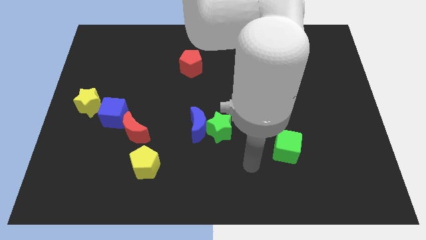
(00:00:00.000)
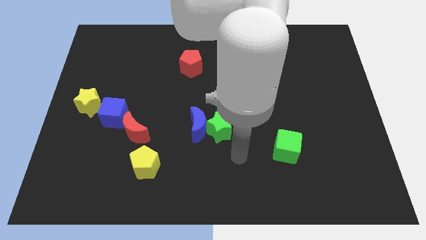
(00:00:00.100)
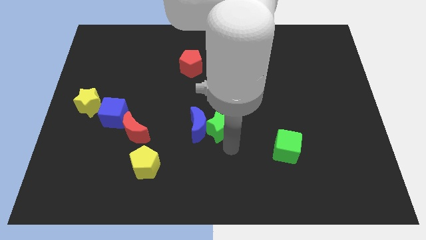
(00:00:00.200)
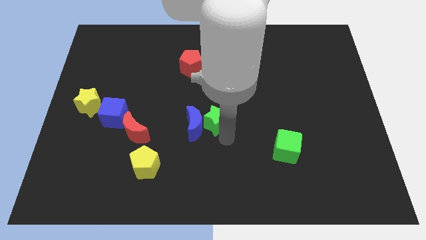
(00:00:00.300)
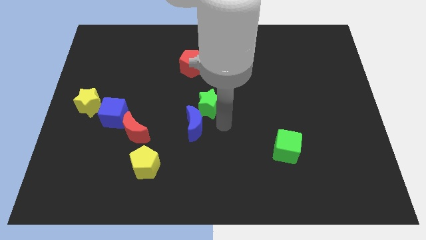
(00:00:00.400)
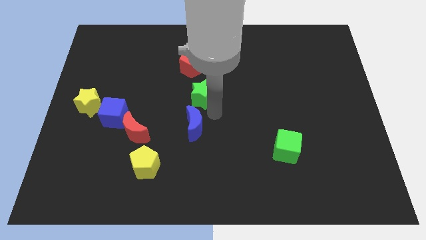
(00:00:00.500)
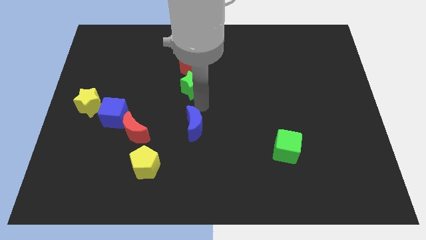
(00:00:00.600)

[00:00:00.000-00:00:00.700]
separate the blue moon from the green star

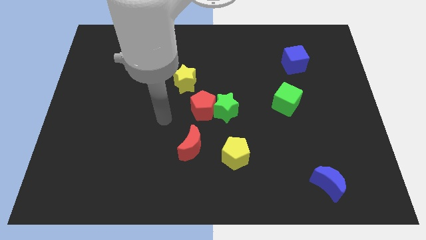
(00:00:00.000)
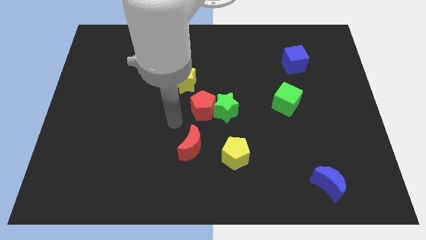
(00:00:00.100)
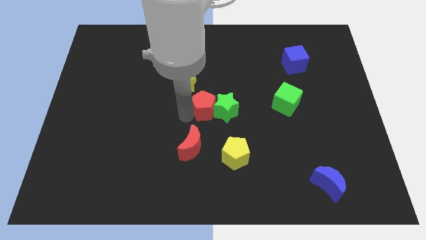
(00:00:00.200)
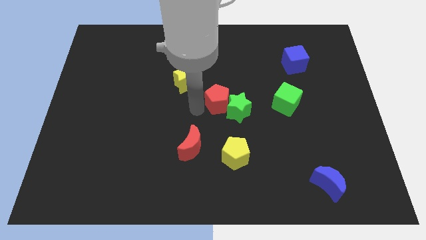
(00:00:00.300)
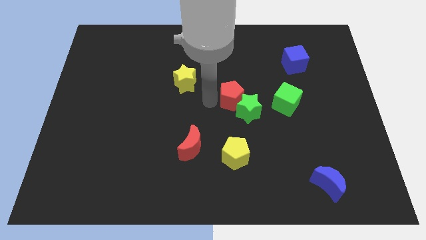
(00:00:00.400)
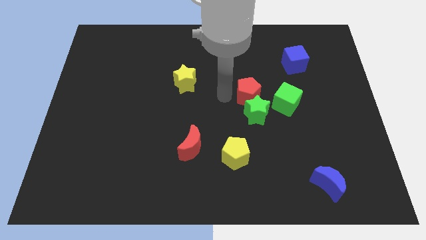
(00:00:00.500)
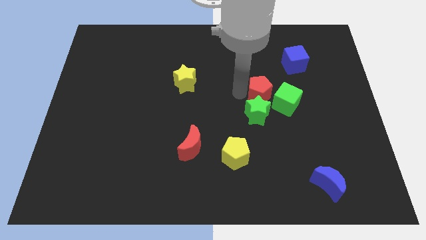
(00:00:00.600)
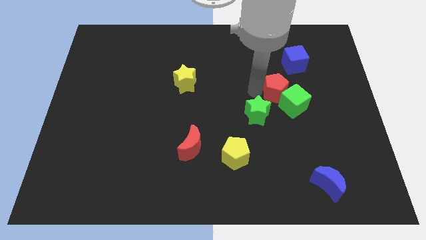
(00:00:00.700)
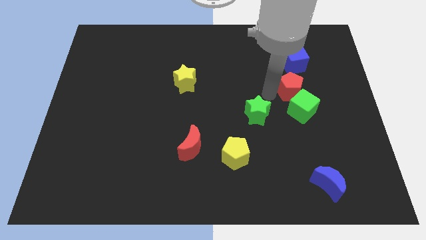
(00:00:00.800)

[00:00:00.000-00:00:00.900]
move the green star away from the red pentagon

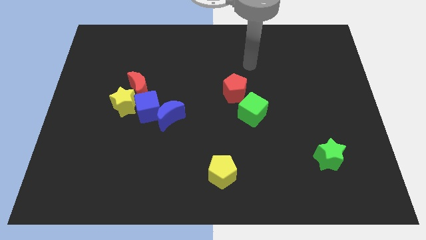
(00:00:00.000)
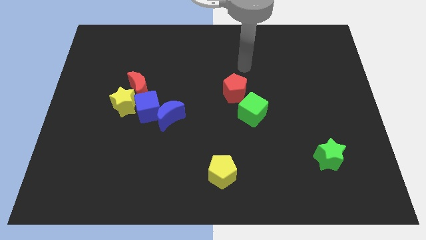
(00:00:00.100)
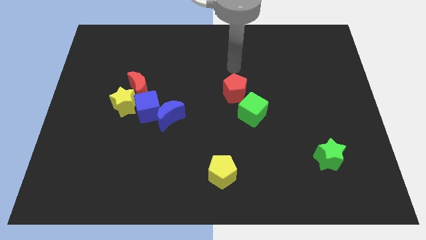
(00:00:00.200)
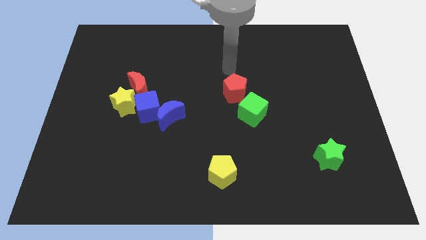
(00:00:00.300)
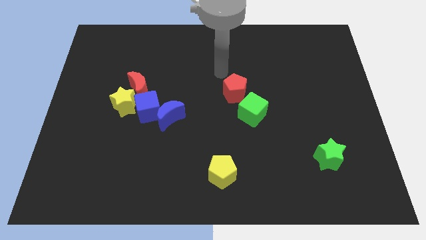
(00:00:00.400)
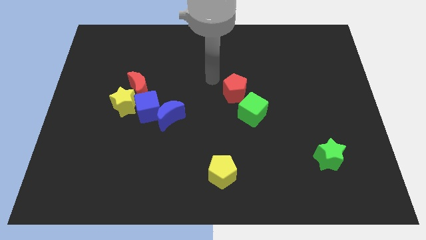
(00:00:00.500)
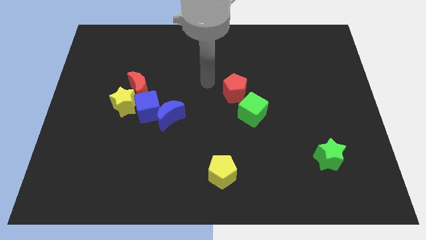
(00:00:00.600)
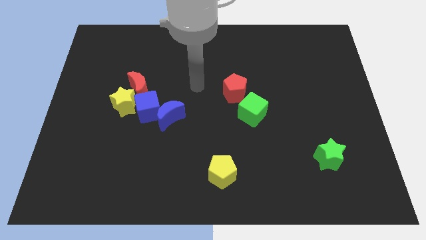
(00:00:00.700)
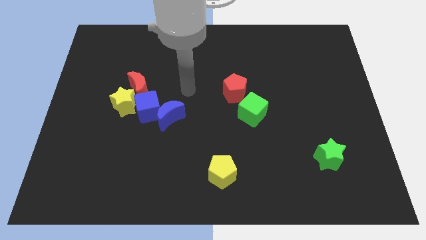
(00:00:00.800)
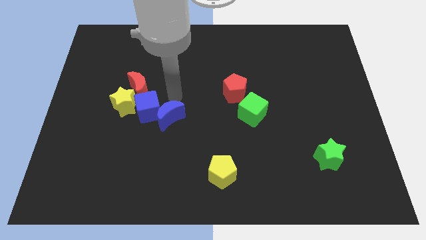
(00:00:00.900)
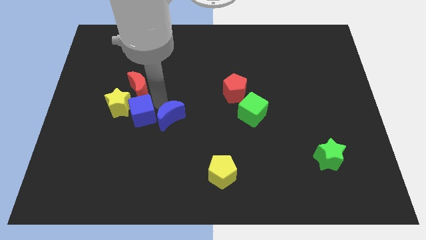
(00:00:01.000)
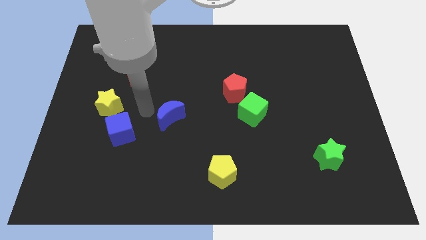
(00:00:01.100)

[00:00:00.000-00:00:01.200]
pull the blue moon apart from the blue cube

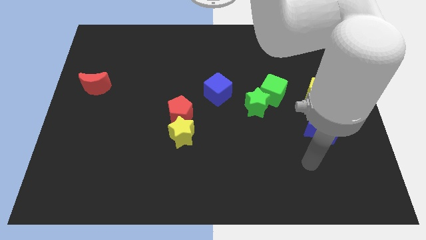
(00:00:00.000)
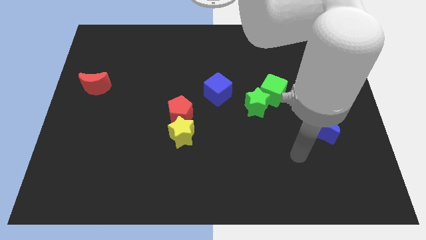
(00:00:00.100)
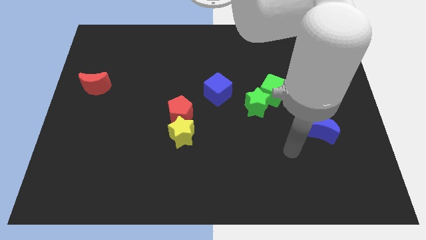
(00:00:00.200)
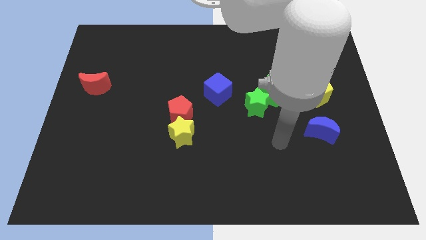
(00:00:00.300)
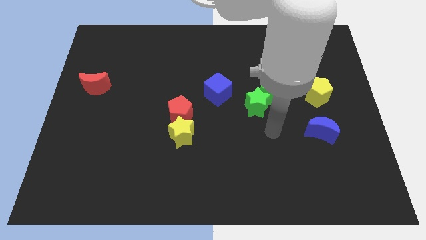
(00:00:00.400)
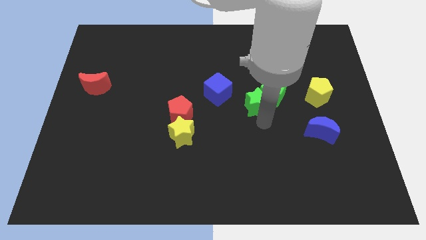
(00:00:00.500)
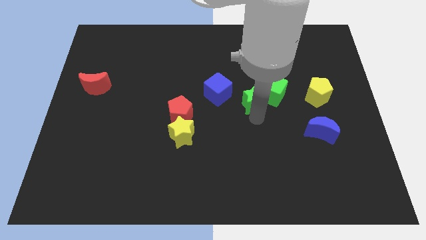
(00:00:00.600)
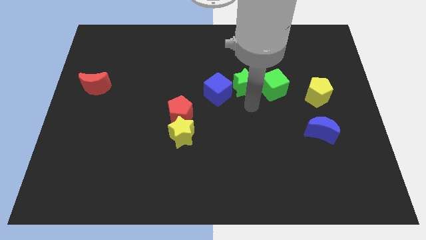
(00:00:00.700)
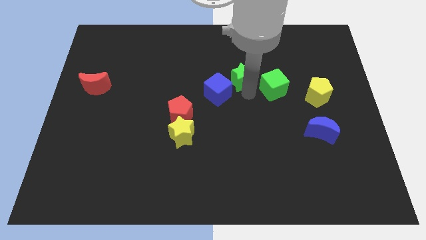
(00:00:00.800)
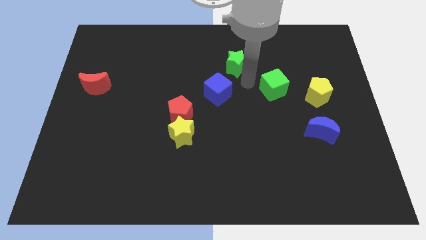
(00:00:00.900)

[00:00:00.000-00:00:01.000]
move the green cube away from the green star

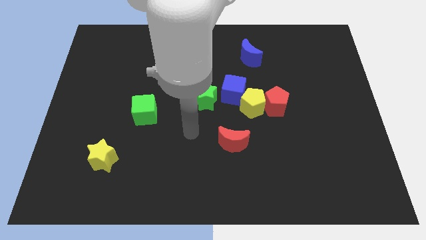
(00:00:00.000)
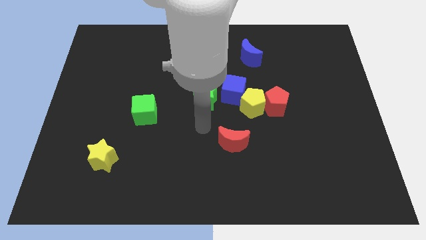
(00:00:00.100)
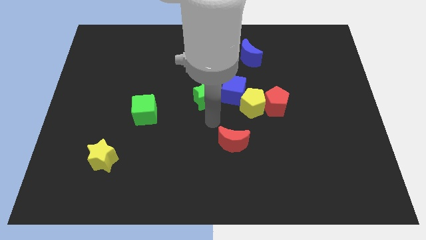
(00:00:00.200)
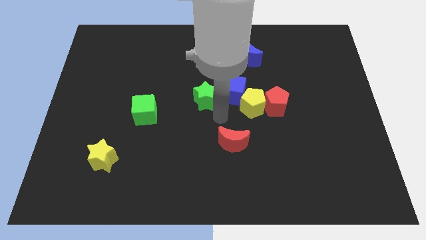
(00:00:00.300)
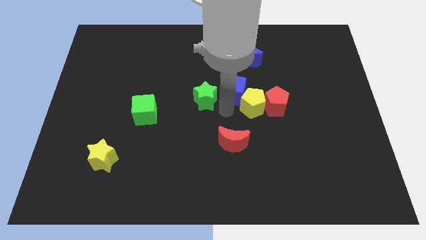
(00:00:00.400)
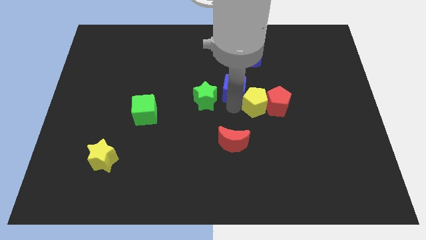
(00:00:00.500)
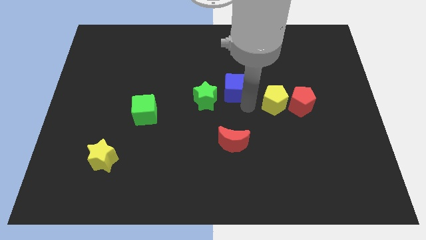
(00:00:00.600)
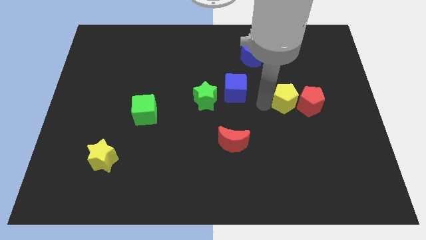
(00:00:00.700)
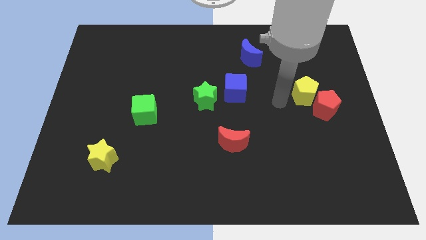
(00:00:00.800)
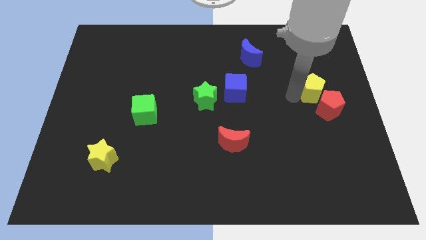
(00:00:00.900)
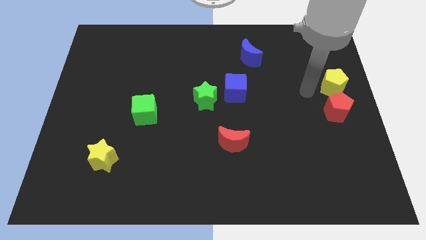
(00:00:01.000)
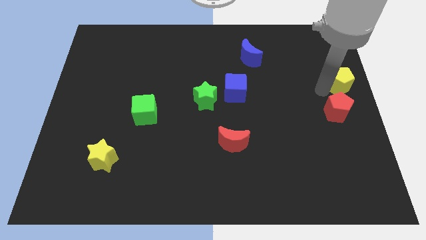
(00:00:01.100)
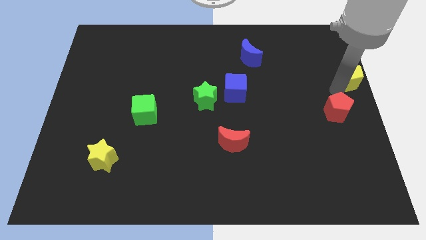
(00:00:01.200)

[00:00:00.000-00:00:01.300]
separate the red pentagon from the yellow pentagon

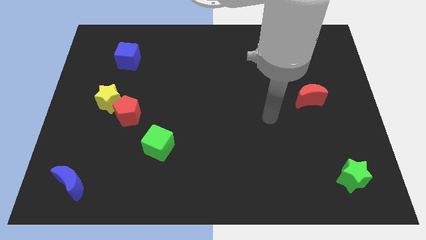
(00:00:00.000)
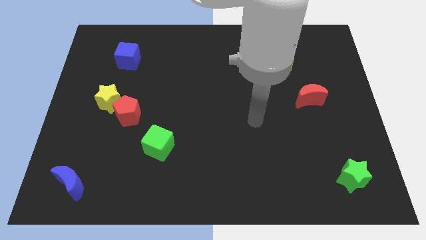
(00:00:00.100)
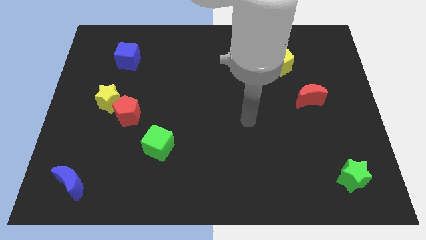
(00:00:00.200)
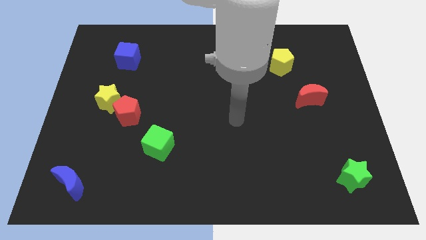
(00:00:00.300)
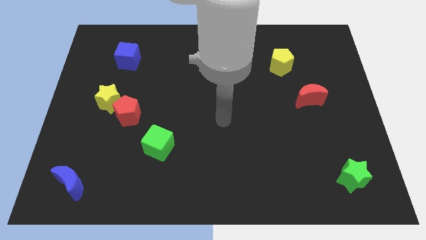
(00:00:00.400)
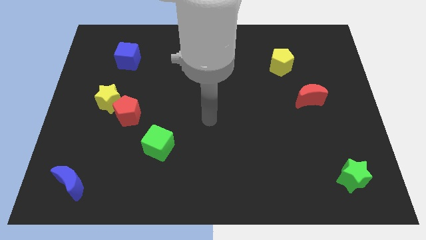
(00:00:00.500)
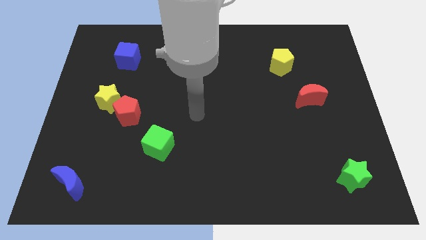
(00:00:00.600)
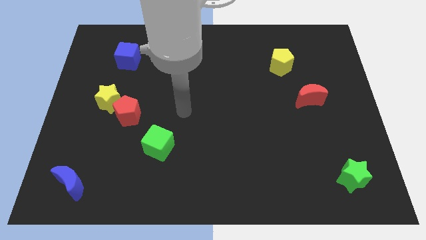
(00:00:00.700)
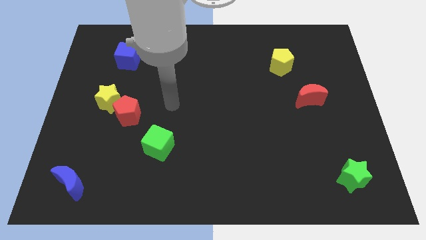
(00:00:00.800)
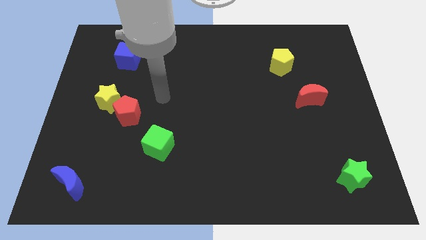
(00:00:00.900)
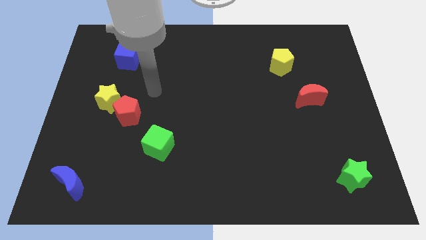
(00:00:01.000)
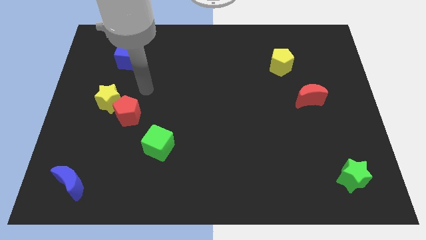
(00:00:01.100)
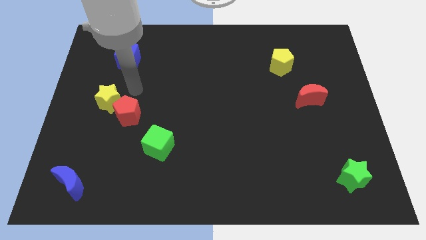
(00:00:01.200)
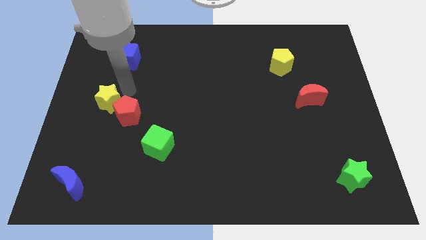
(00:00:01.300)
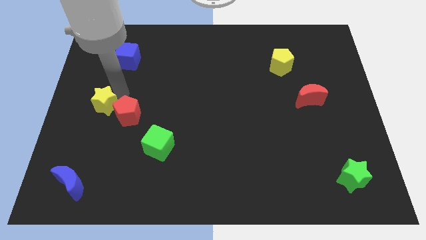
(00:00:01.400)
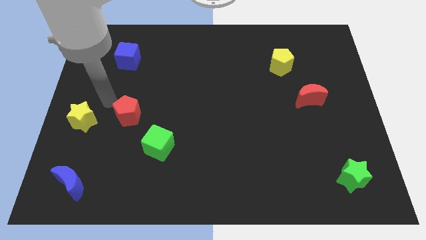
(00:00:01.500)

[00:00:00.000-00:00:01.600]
separate the red pentagon from the yellow star

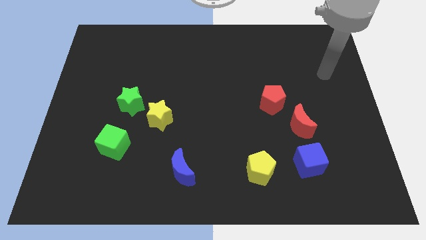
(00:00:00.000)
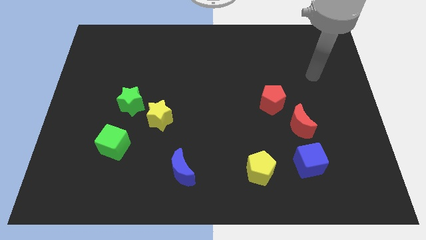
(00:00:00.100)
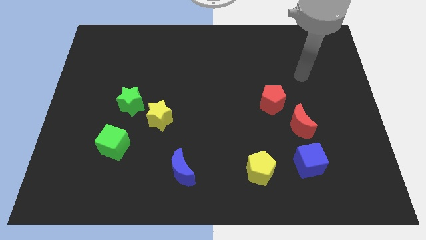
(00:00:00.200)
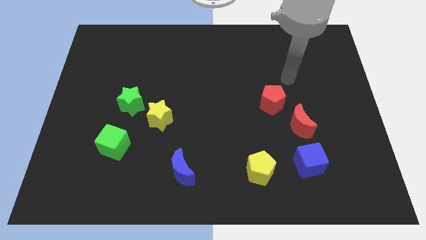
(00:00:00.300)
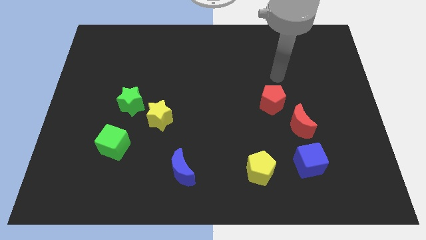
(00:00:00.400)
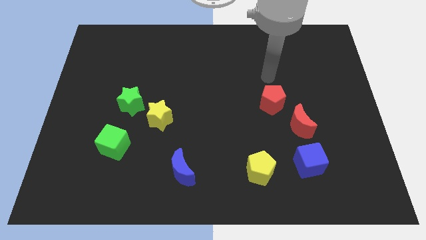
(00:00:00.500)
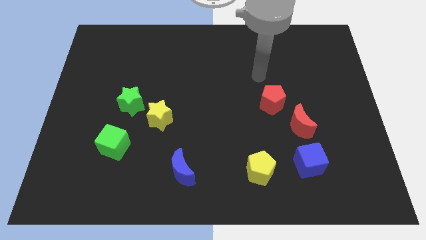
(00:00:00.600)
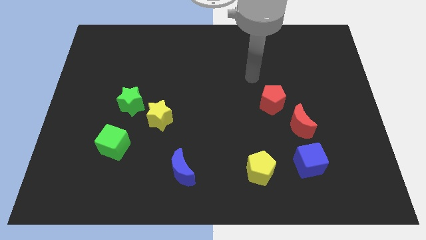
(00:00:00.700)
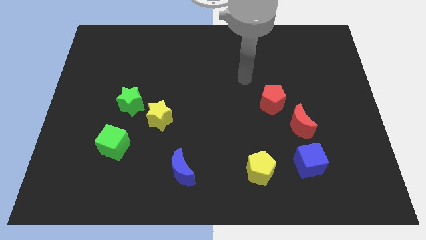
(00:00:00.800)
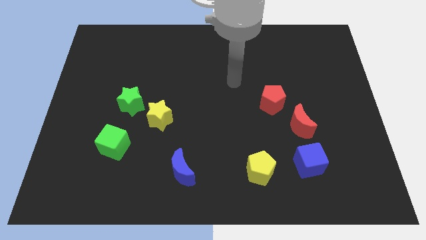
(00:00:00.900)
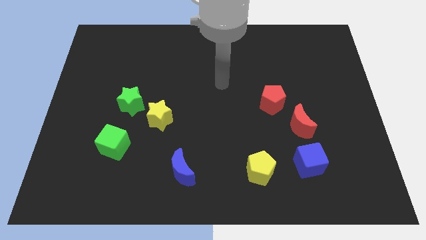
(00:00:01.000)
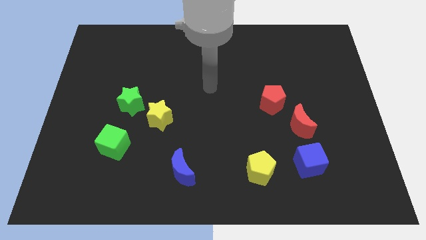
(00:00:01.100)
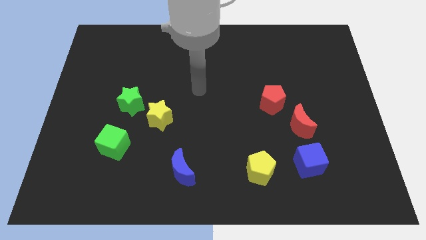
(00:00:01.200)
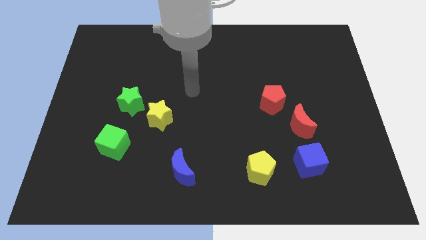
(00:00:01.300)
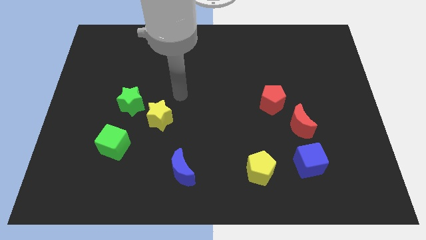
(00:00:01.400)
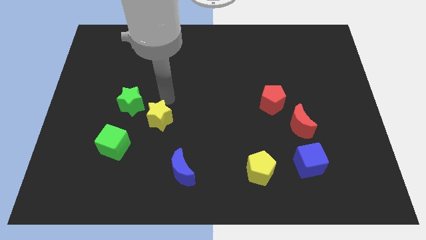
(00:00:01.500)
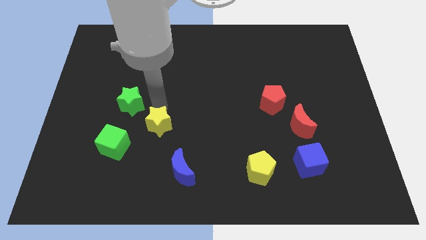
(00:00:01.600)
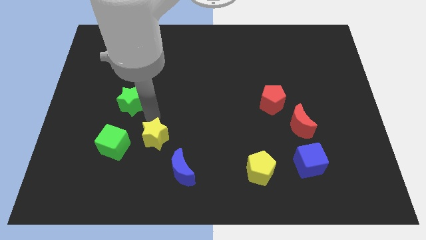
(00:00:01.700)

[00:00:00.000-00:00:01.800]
pull the green star apart from the yellow star

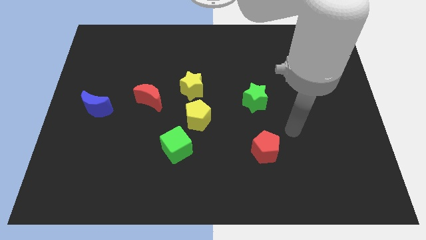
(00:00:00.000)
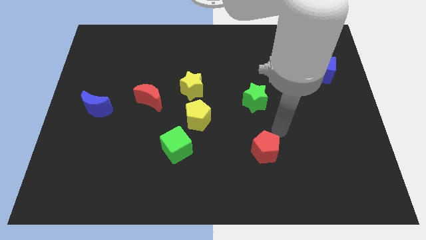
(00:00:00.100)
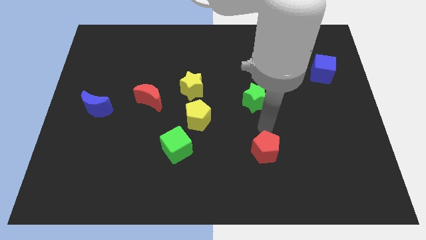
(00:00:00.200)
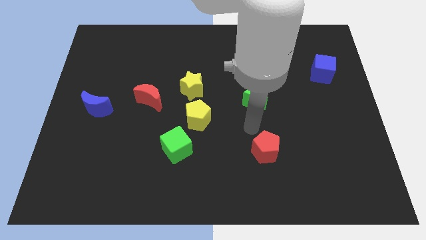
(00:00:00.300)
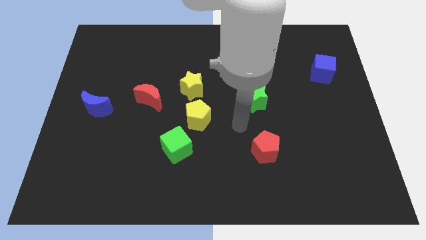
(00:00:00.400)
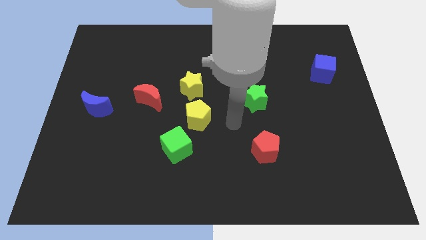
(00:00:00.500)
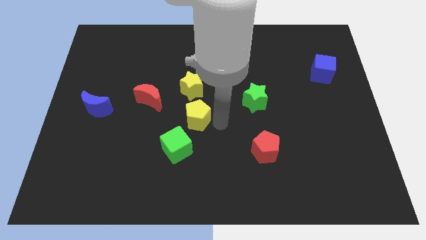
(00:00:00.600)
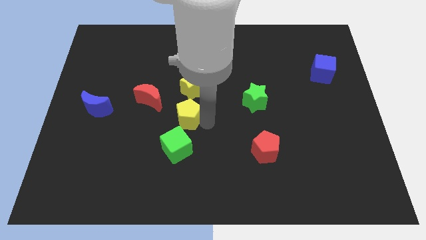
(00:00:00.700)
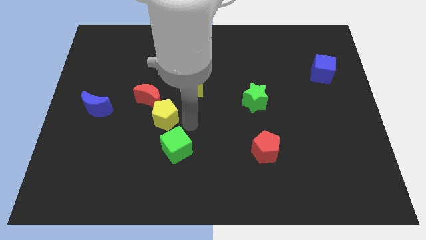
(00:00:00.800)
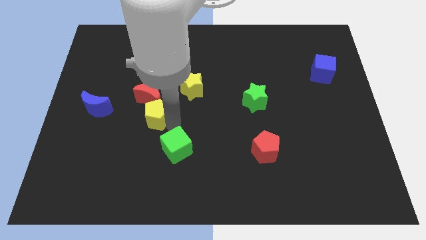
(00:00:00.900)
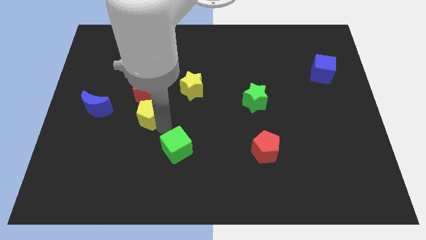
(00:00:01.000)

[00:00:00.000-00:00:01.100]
pull the green cube apart from the yellow pentagon
